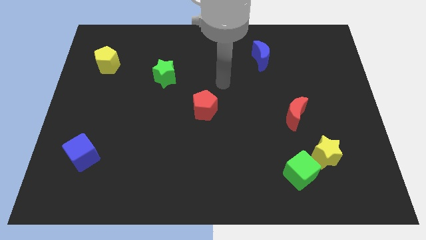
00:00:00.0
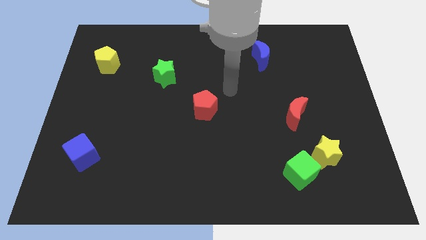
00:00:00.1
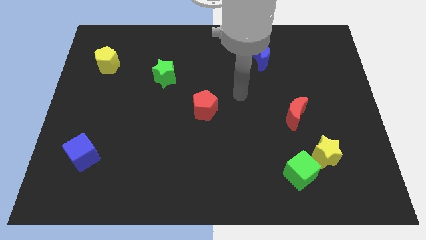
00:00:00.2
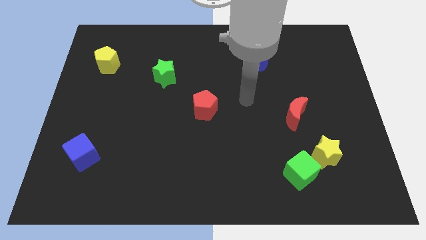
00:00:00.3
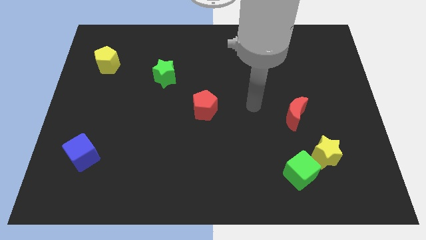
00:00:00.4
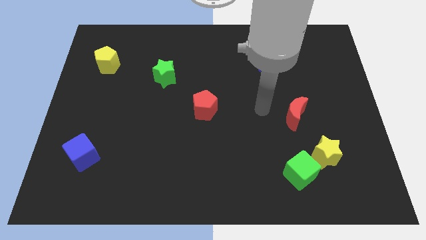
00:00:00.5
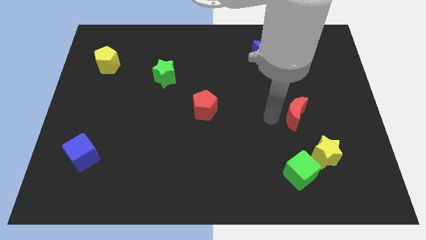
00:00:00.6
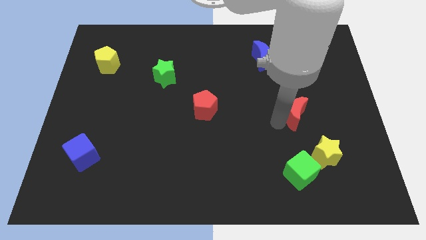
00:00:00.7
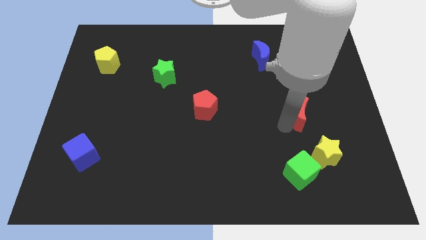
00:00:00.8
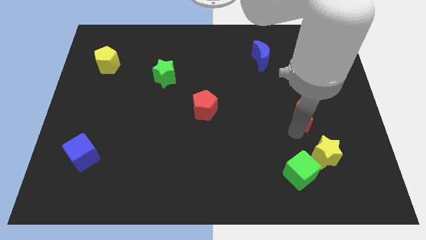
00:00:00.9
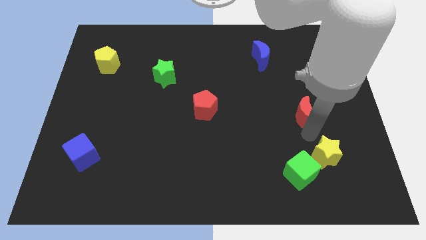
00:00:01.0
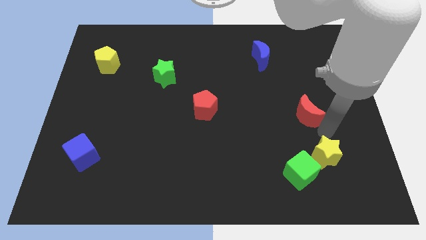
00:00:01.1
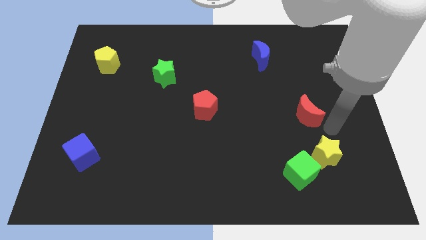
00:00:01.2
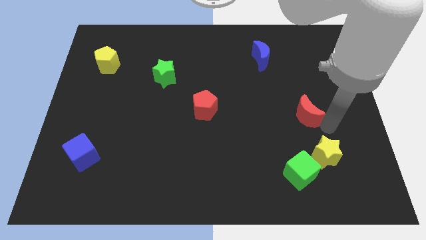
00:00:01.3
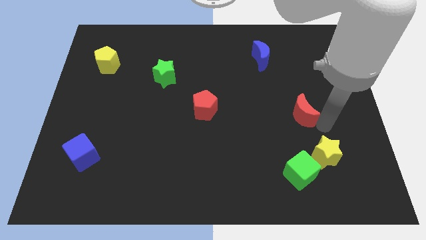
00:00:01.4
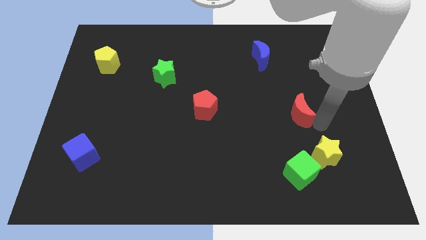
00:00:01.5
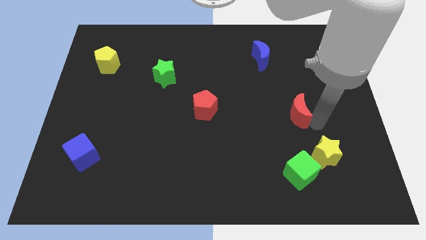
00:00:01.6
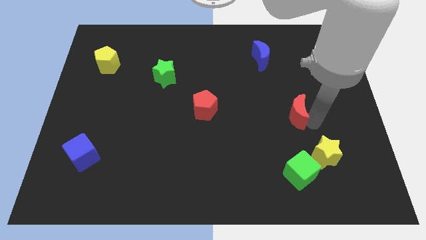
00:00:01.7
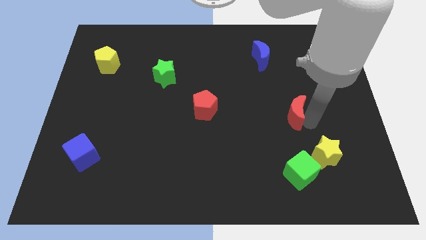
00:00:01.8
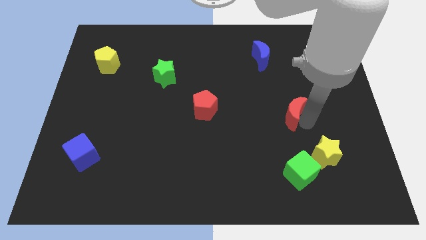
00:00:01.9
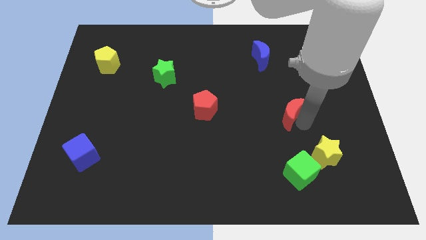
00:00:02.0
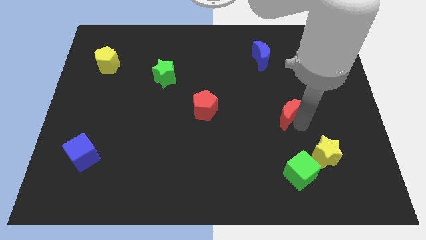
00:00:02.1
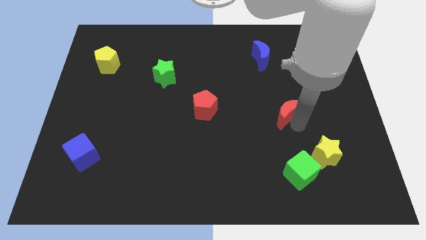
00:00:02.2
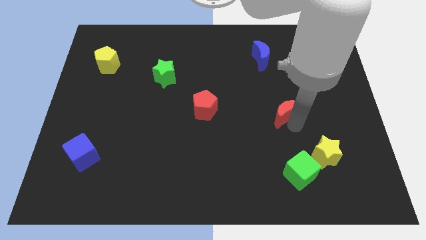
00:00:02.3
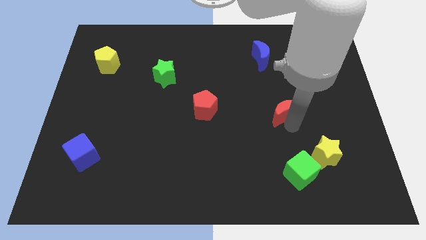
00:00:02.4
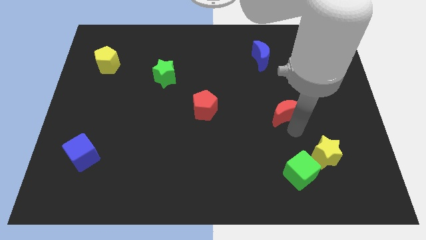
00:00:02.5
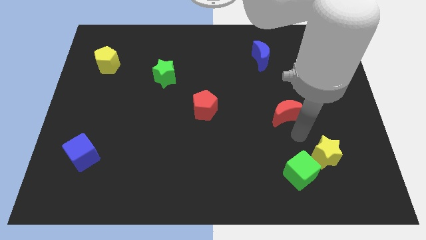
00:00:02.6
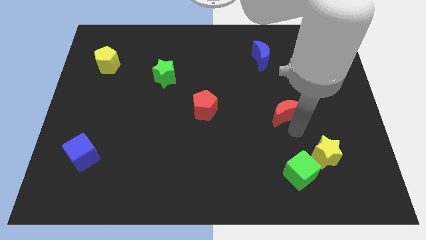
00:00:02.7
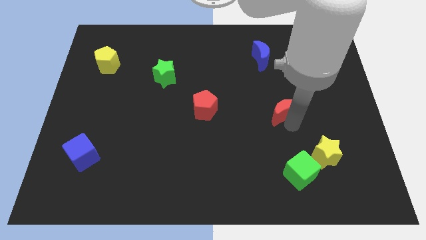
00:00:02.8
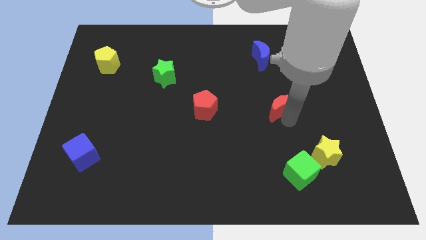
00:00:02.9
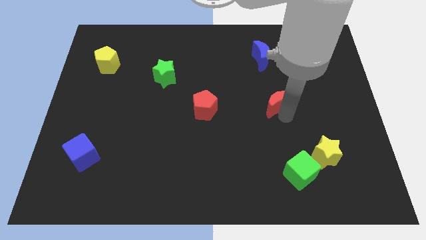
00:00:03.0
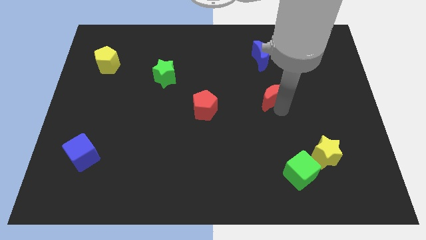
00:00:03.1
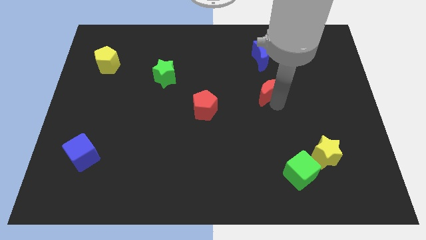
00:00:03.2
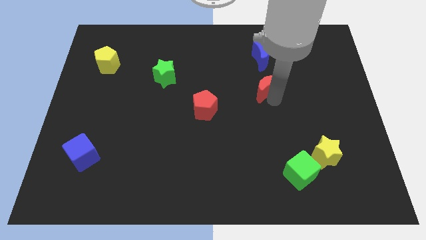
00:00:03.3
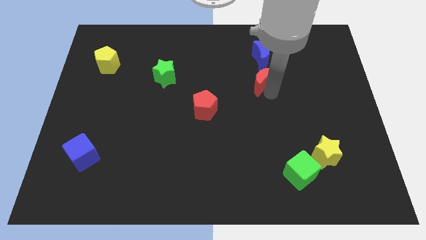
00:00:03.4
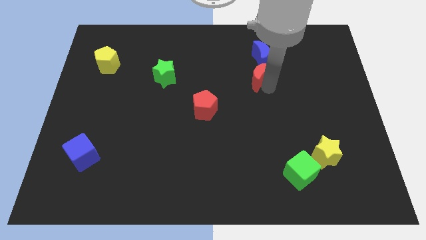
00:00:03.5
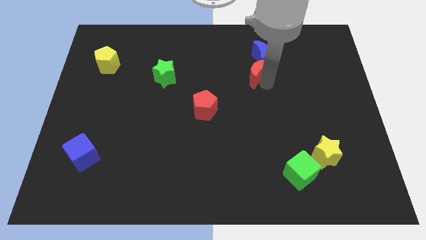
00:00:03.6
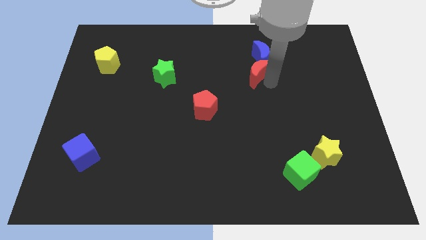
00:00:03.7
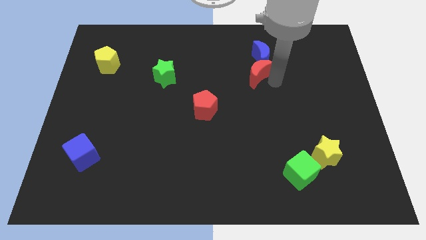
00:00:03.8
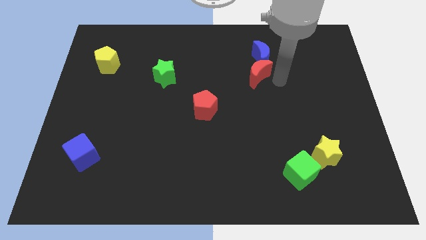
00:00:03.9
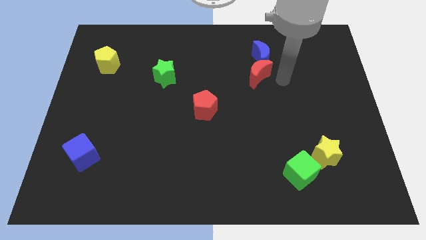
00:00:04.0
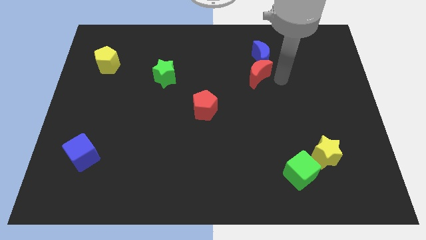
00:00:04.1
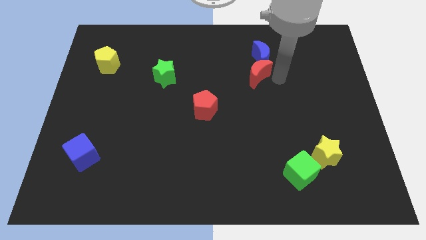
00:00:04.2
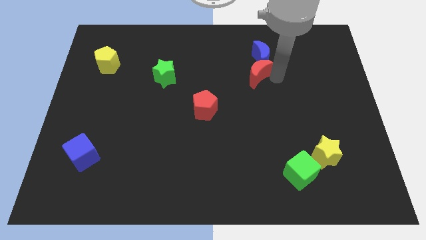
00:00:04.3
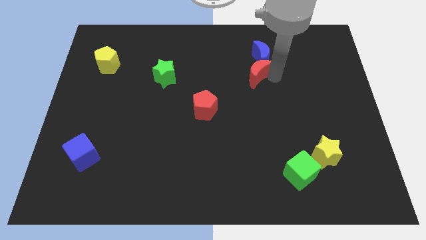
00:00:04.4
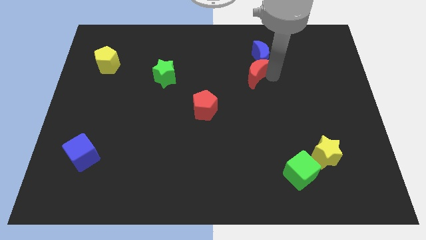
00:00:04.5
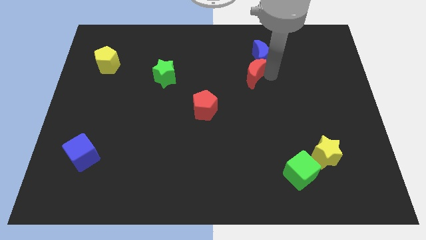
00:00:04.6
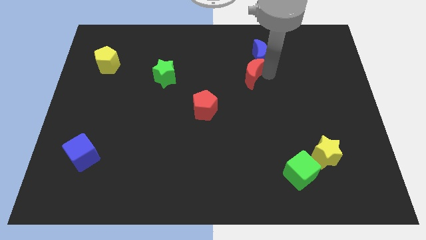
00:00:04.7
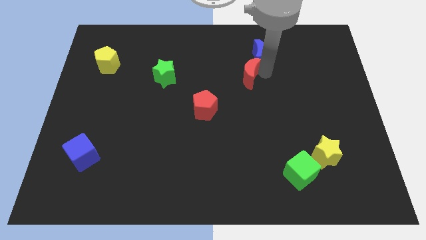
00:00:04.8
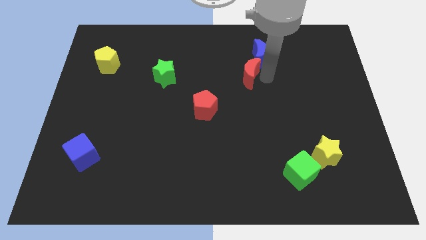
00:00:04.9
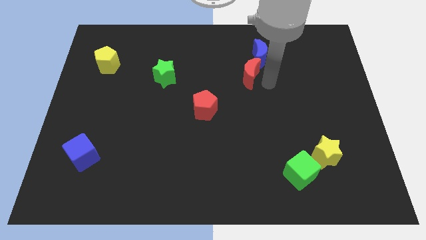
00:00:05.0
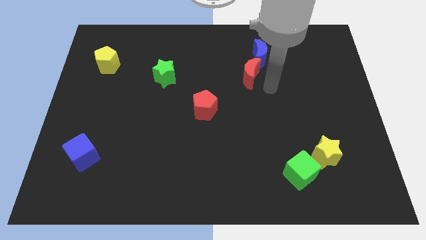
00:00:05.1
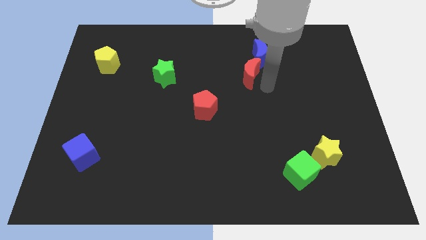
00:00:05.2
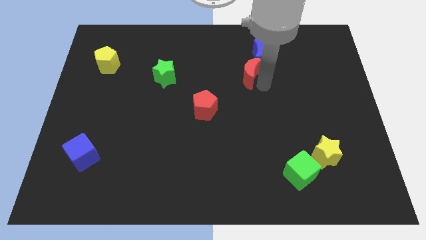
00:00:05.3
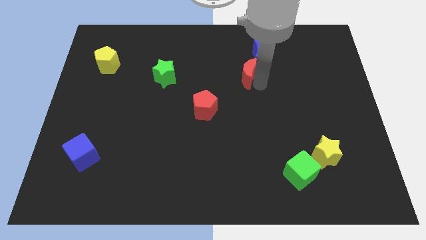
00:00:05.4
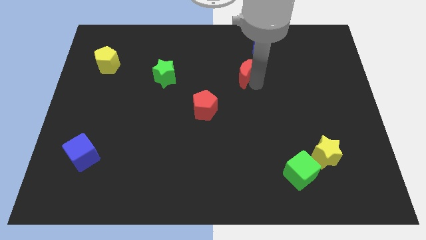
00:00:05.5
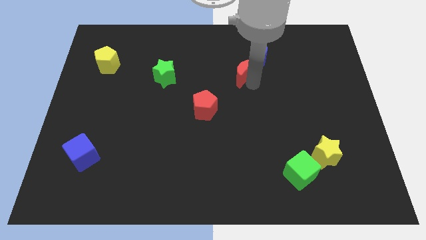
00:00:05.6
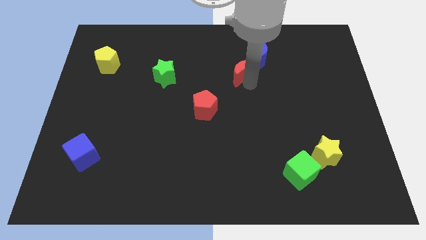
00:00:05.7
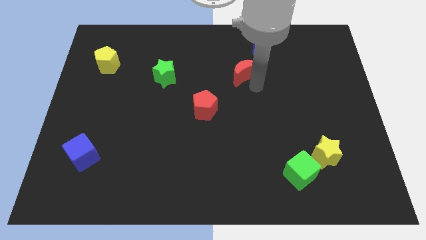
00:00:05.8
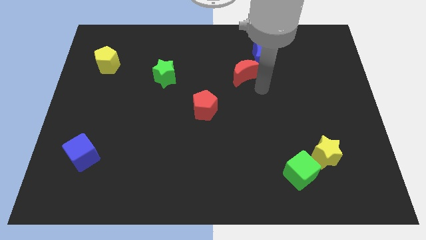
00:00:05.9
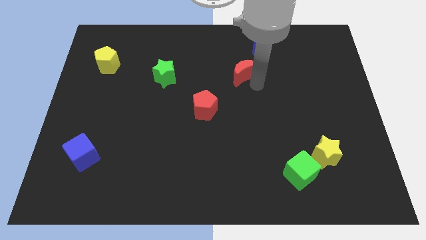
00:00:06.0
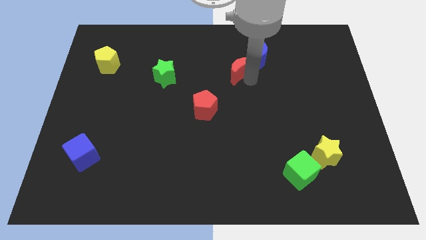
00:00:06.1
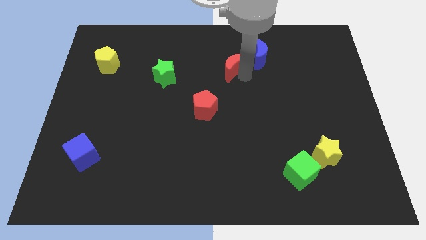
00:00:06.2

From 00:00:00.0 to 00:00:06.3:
put the red moon to the left side of the blue moon
